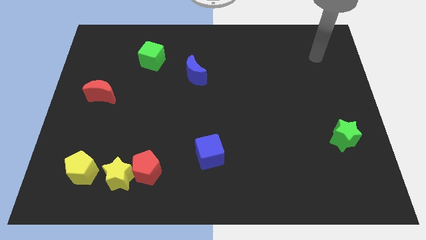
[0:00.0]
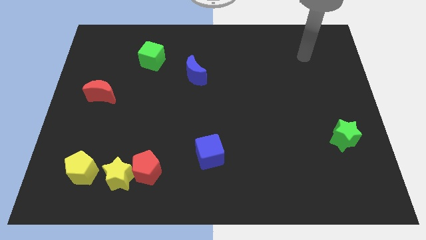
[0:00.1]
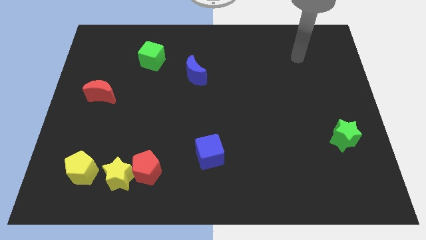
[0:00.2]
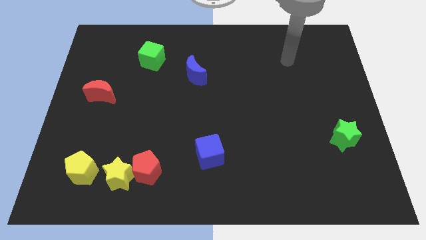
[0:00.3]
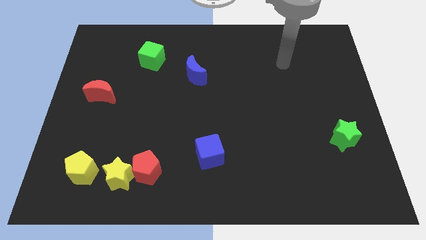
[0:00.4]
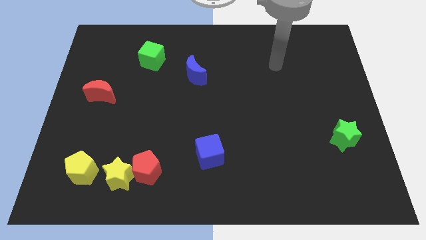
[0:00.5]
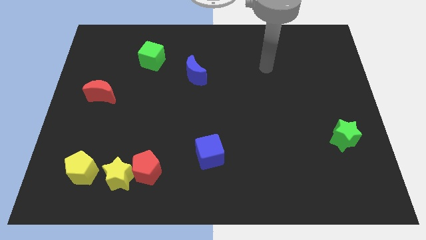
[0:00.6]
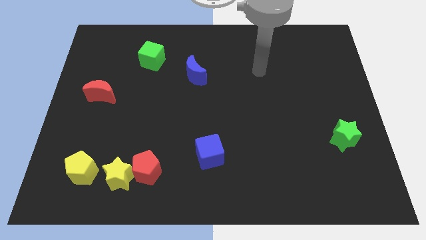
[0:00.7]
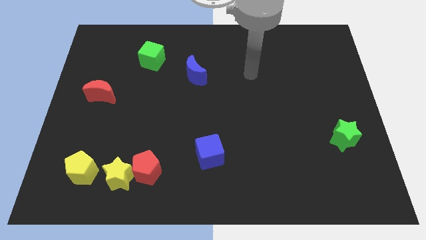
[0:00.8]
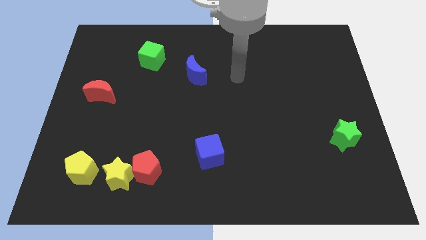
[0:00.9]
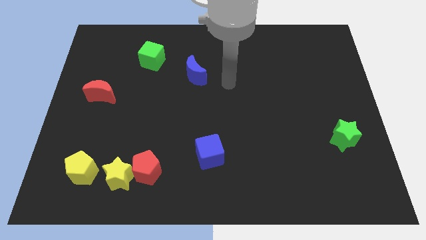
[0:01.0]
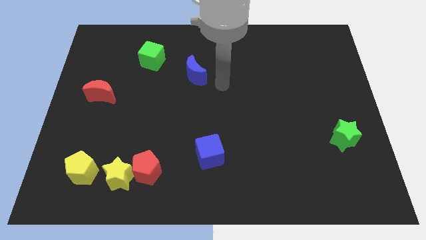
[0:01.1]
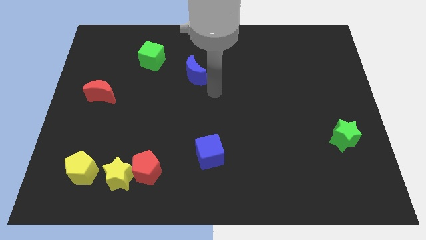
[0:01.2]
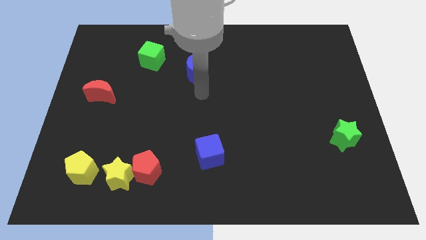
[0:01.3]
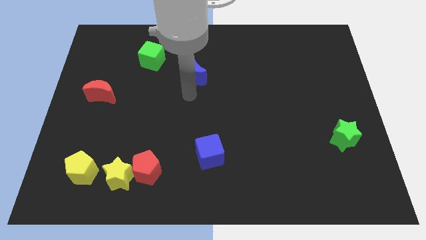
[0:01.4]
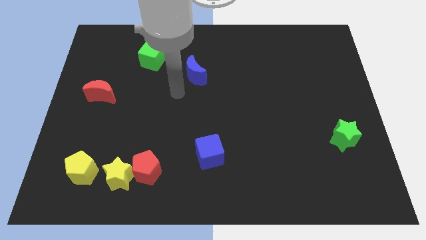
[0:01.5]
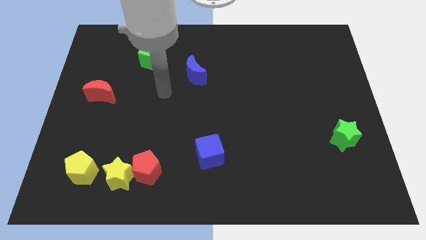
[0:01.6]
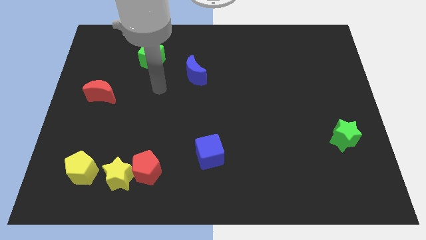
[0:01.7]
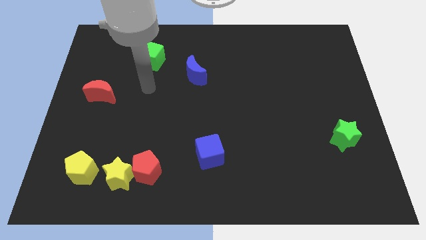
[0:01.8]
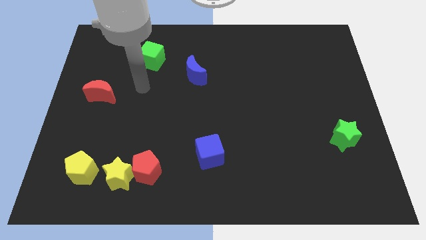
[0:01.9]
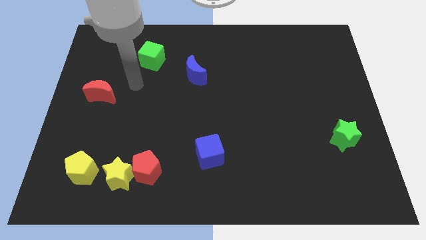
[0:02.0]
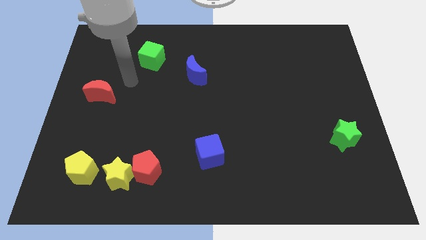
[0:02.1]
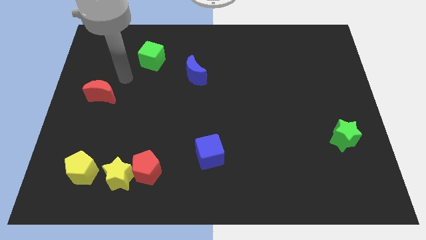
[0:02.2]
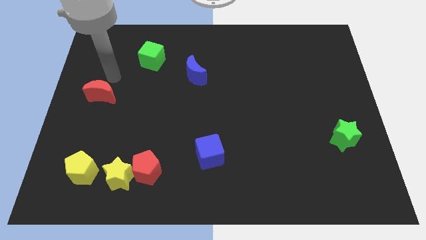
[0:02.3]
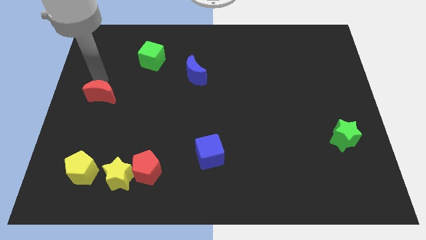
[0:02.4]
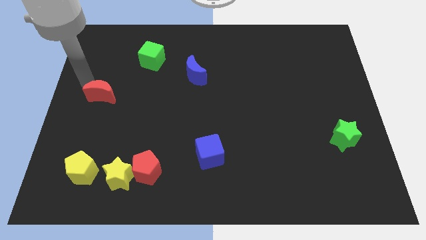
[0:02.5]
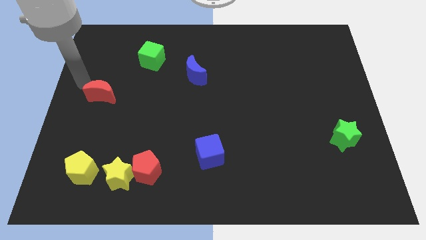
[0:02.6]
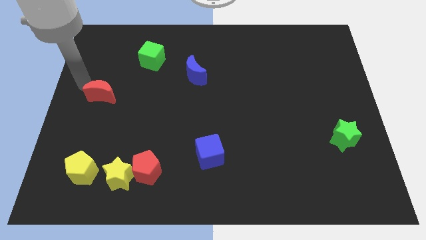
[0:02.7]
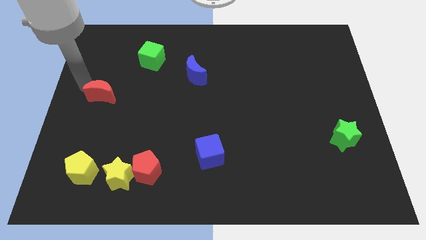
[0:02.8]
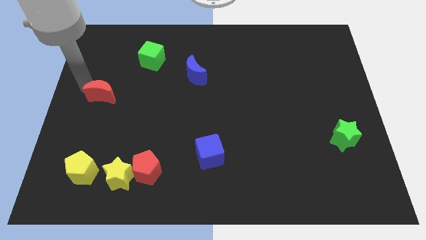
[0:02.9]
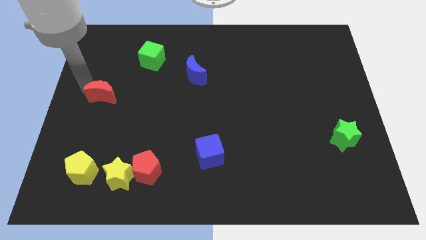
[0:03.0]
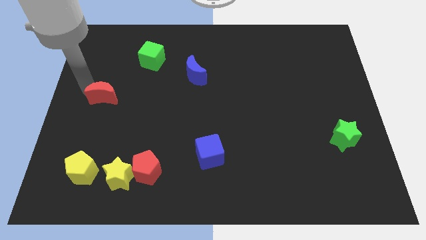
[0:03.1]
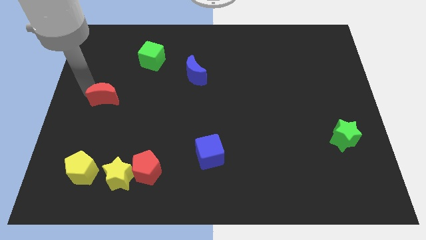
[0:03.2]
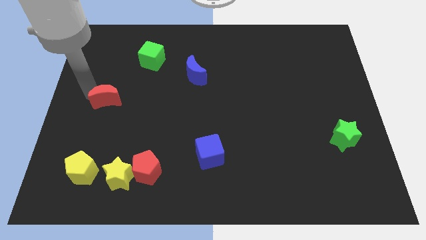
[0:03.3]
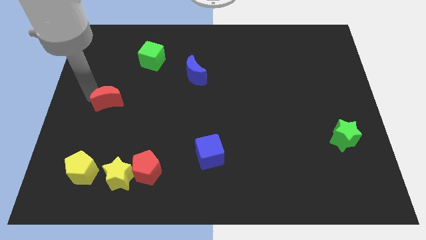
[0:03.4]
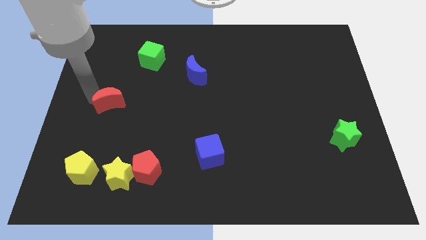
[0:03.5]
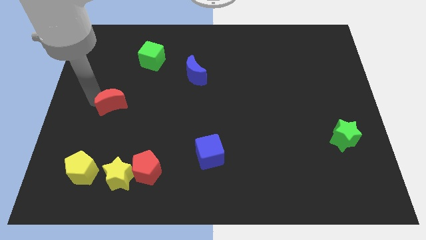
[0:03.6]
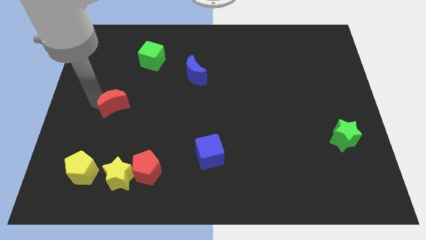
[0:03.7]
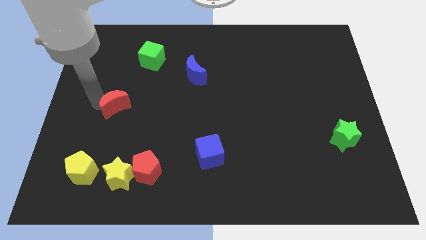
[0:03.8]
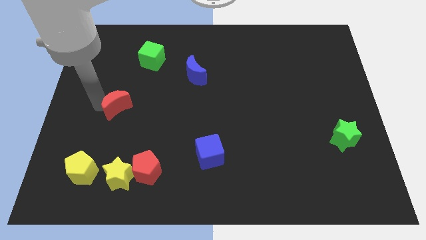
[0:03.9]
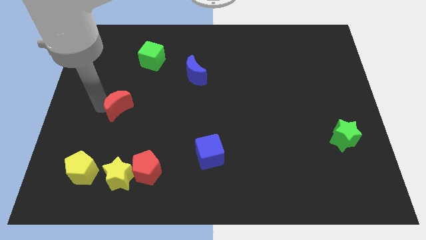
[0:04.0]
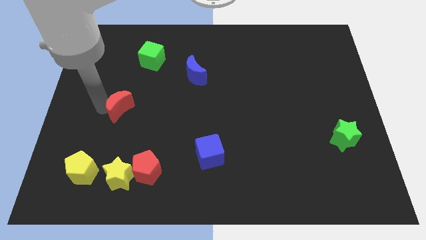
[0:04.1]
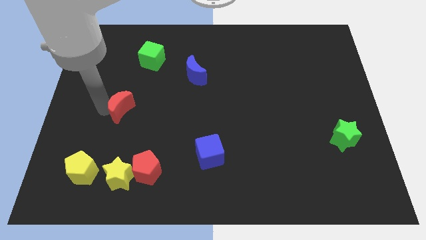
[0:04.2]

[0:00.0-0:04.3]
slightly slide the red moon downwards and to the right diagonally

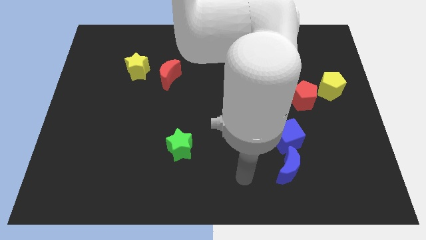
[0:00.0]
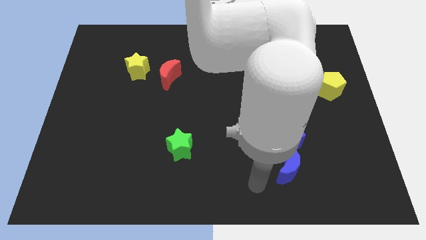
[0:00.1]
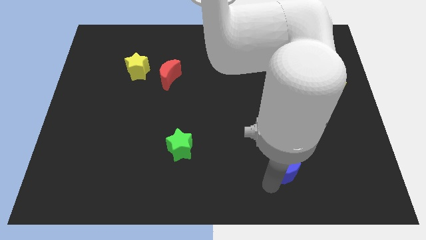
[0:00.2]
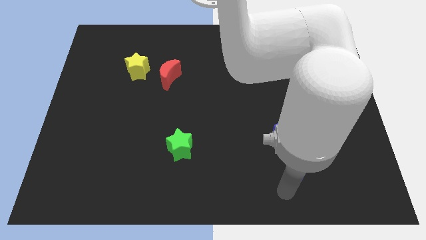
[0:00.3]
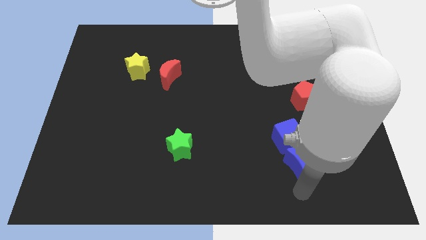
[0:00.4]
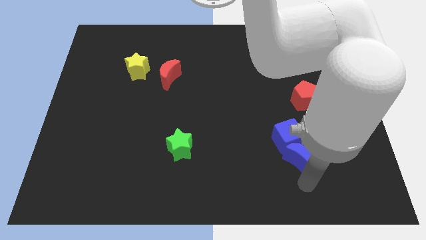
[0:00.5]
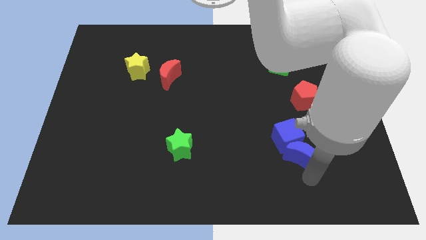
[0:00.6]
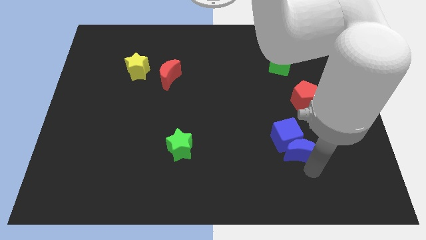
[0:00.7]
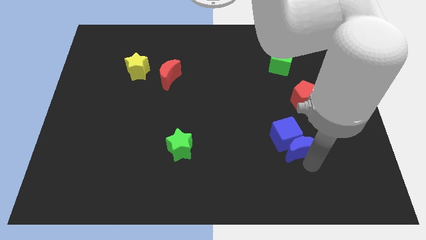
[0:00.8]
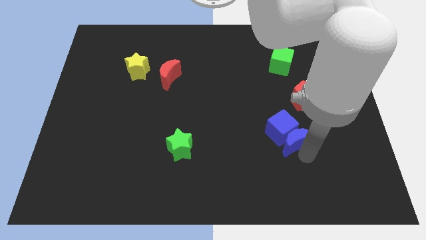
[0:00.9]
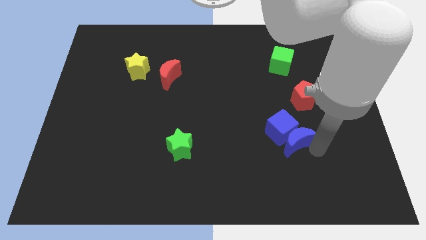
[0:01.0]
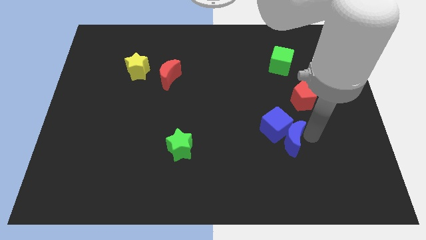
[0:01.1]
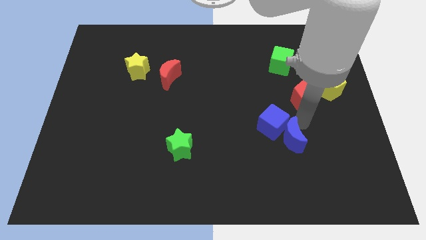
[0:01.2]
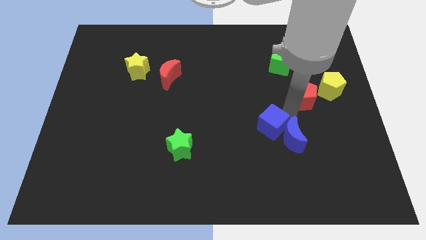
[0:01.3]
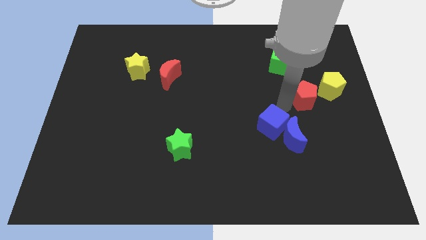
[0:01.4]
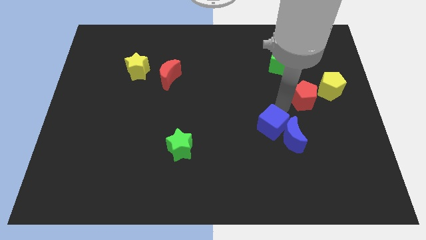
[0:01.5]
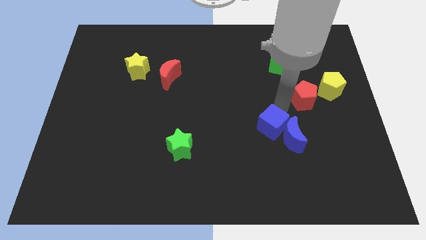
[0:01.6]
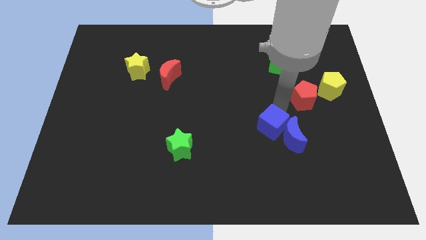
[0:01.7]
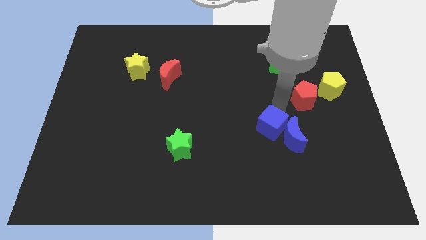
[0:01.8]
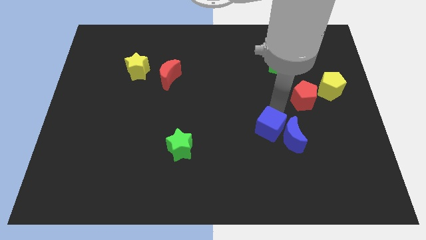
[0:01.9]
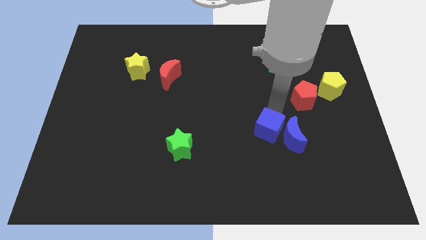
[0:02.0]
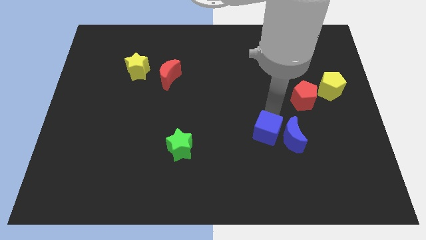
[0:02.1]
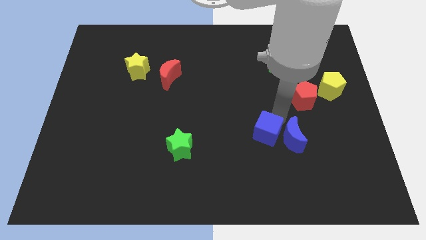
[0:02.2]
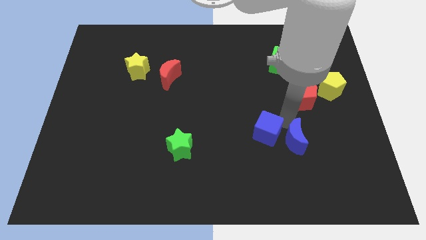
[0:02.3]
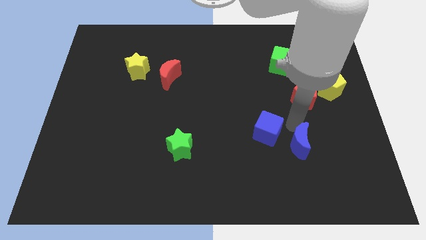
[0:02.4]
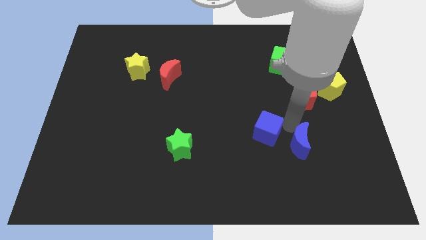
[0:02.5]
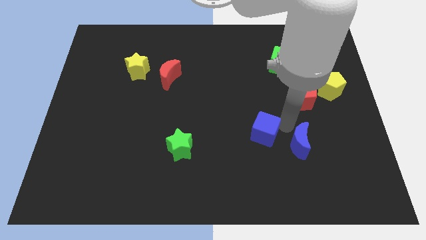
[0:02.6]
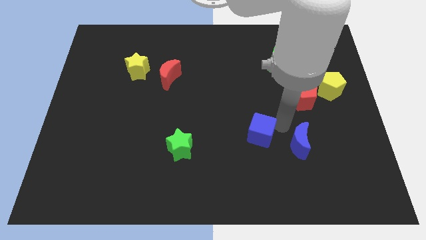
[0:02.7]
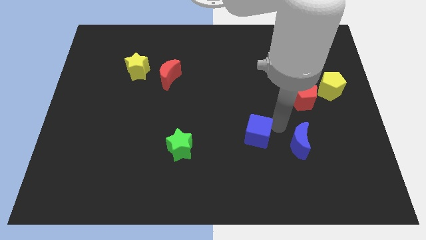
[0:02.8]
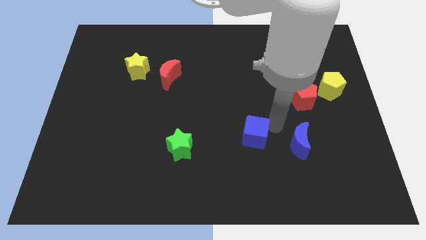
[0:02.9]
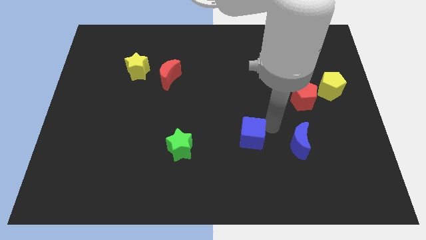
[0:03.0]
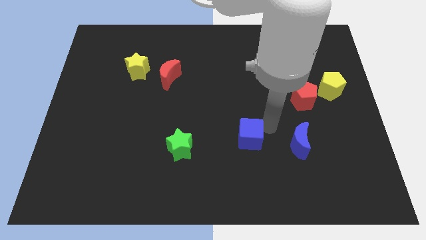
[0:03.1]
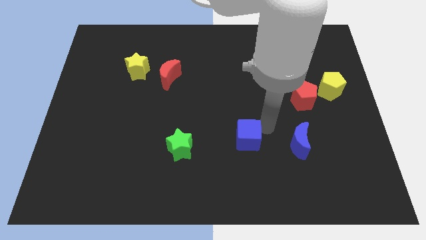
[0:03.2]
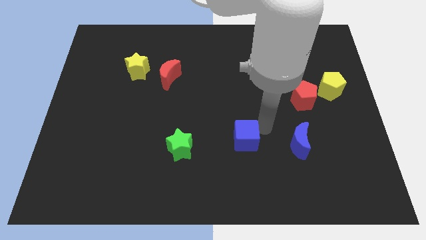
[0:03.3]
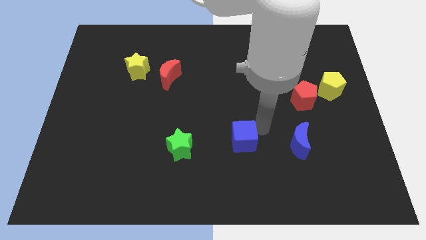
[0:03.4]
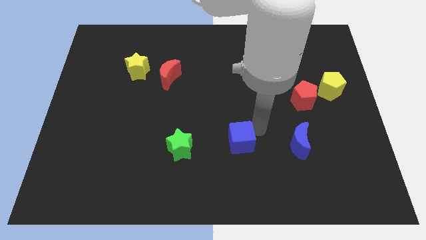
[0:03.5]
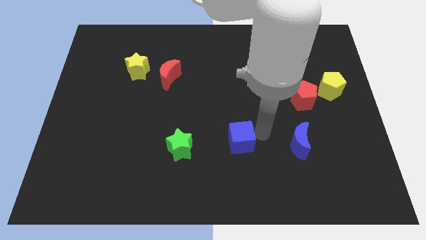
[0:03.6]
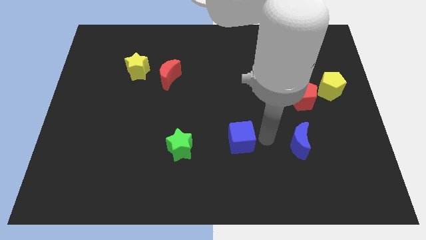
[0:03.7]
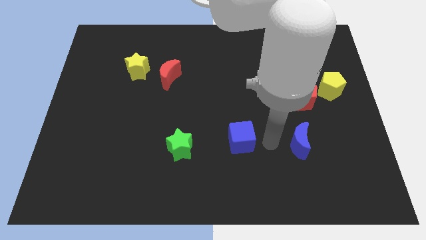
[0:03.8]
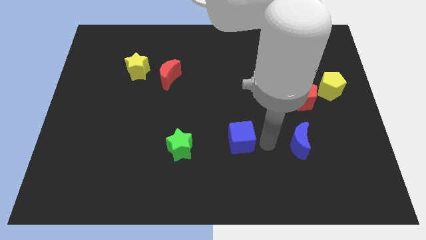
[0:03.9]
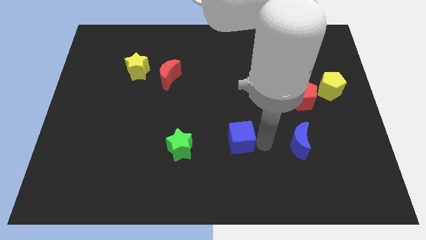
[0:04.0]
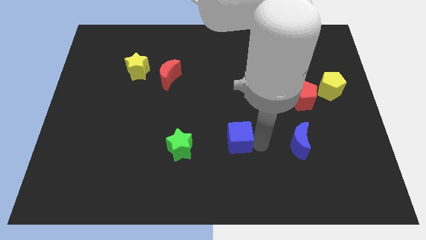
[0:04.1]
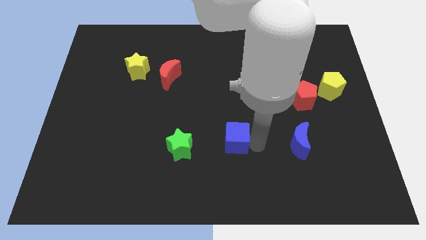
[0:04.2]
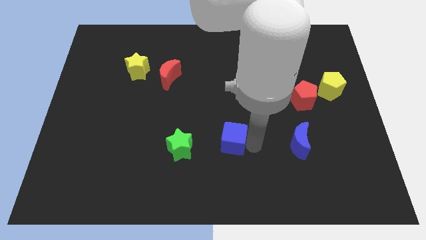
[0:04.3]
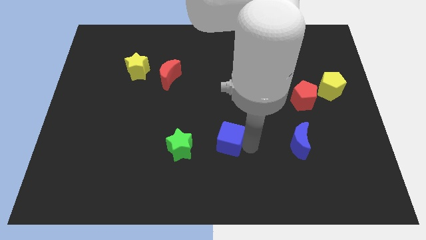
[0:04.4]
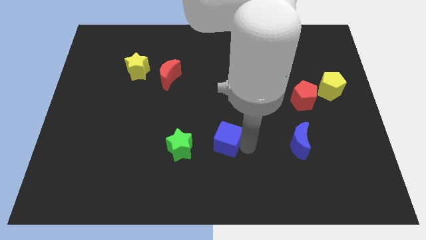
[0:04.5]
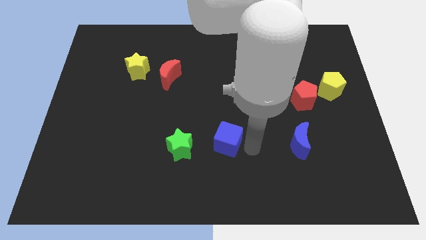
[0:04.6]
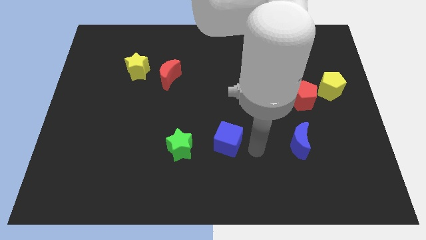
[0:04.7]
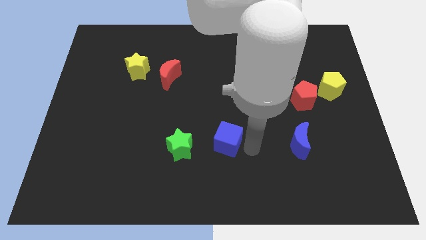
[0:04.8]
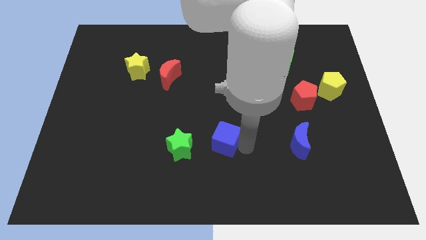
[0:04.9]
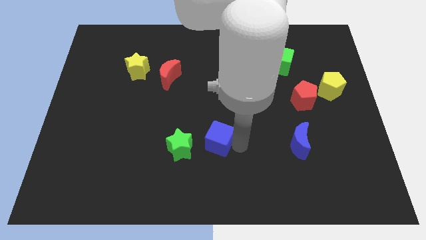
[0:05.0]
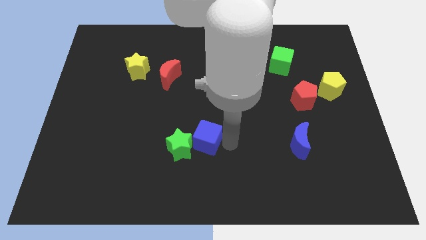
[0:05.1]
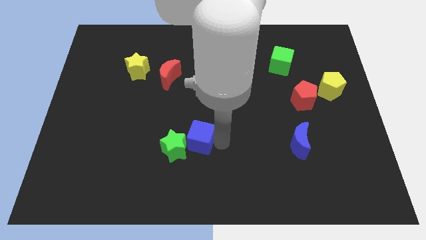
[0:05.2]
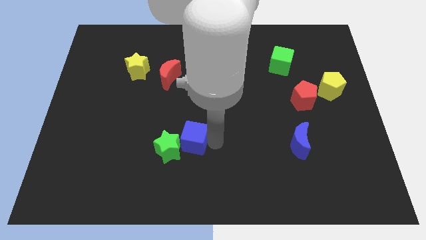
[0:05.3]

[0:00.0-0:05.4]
push the blue cube left
